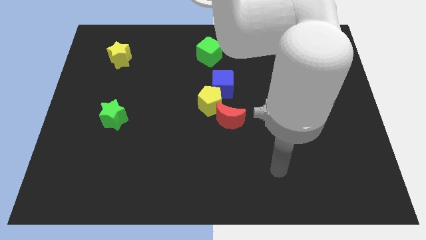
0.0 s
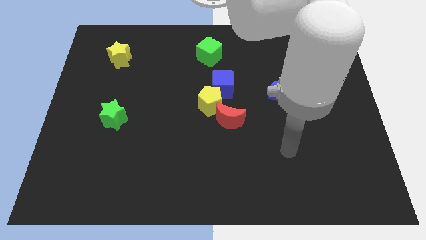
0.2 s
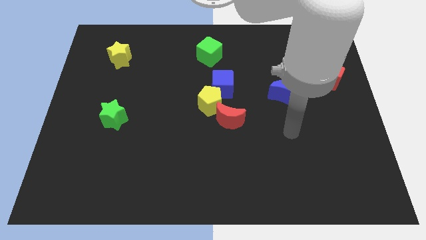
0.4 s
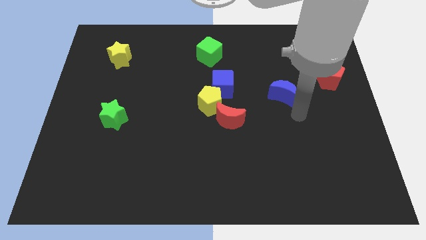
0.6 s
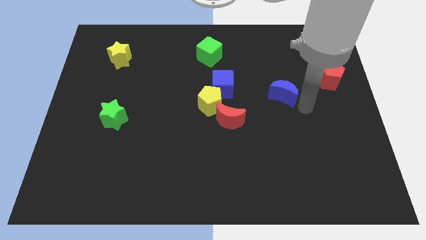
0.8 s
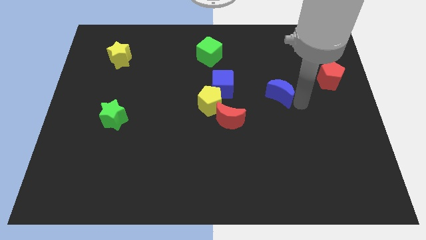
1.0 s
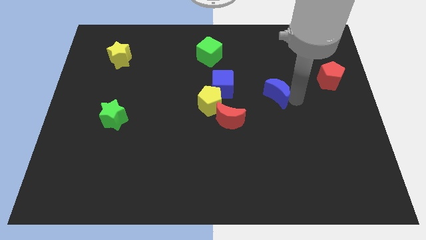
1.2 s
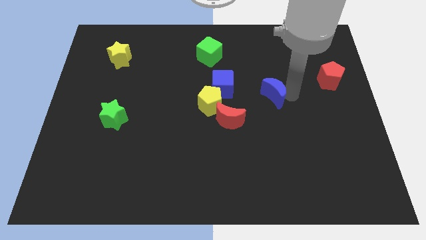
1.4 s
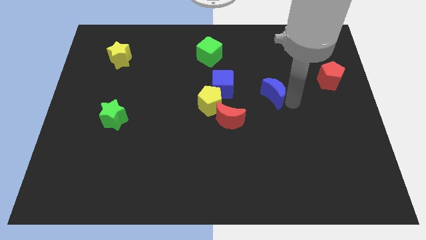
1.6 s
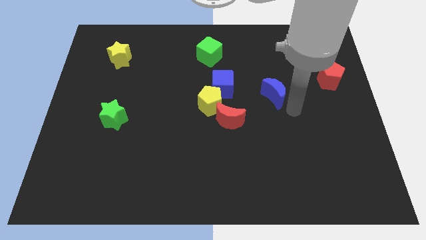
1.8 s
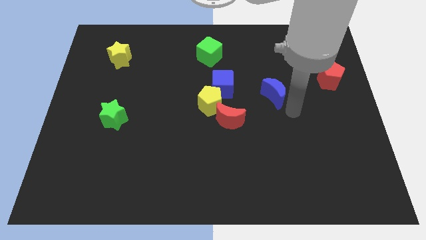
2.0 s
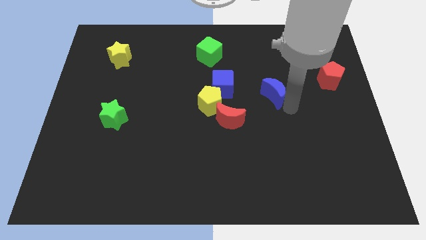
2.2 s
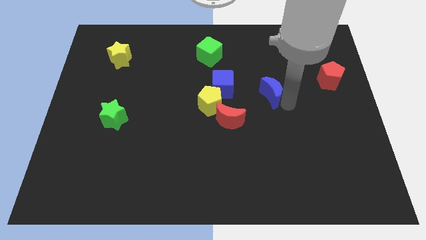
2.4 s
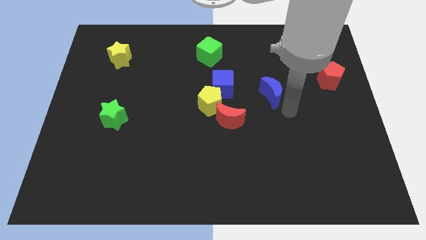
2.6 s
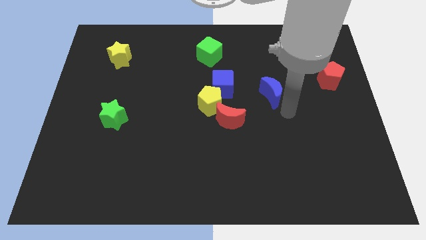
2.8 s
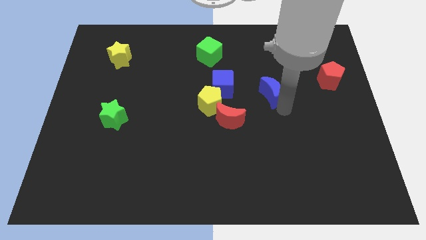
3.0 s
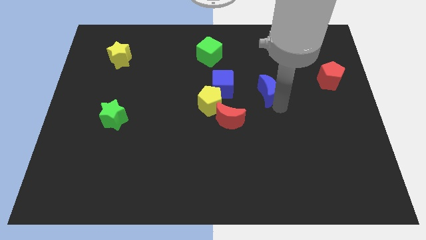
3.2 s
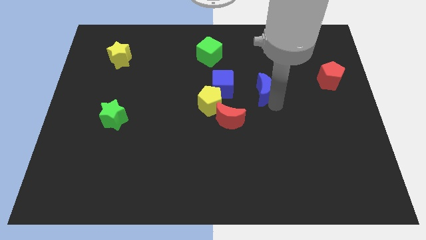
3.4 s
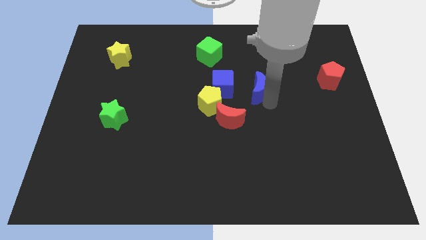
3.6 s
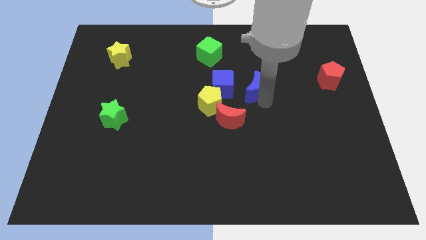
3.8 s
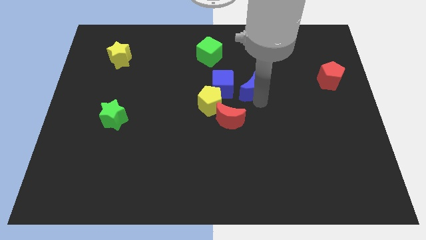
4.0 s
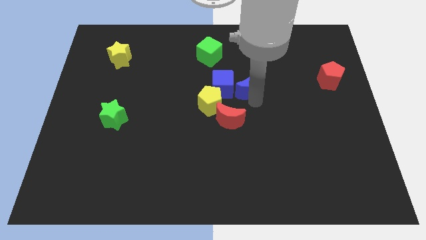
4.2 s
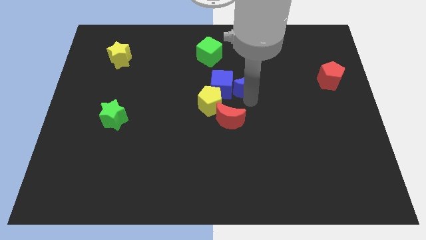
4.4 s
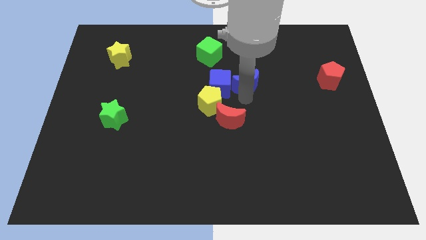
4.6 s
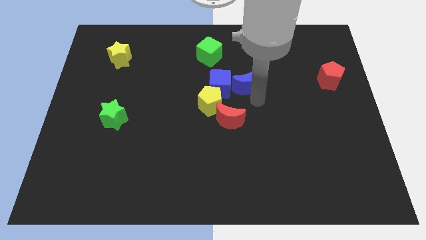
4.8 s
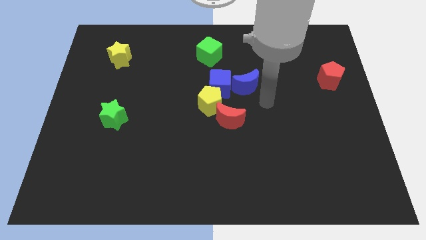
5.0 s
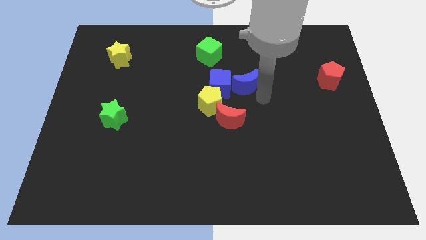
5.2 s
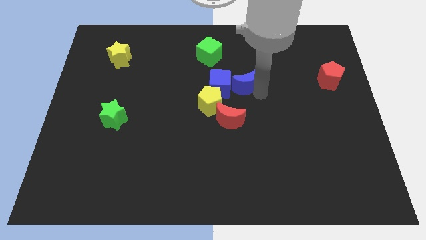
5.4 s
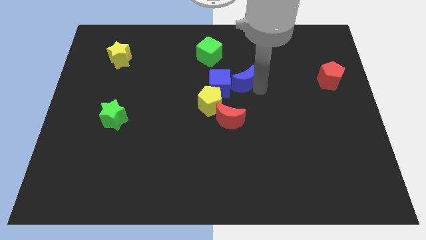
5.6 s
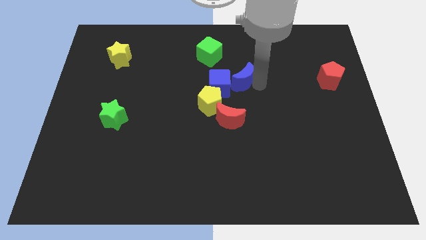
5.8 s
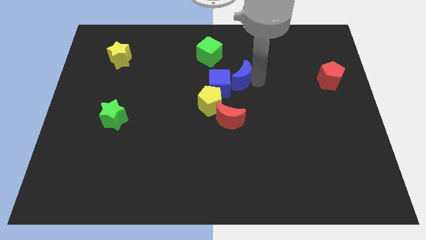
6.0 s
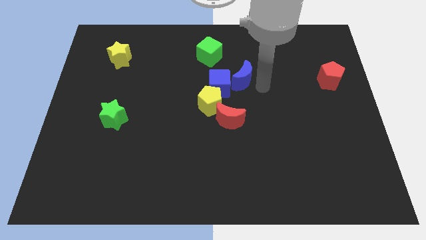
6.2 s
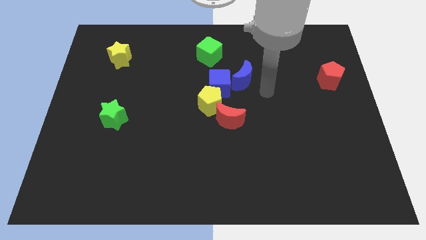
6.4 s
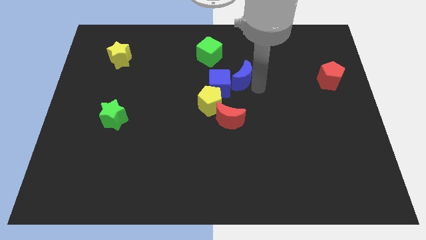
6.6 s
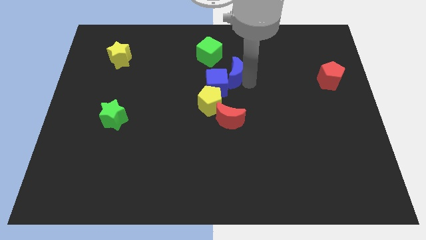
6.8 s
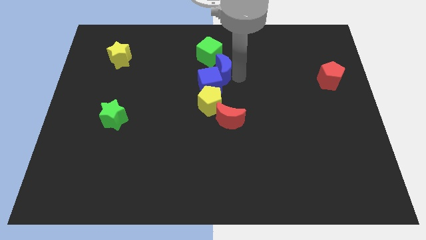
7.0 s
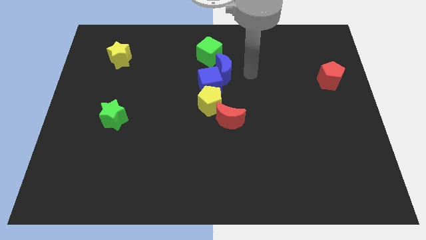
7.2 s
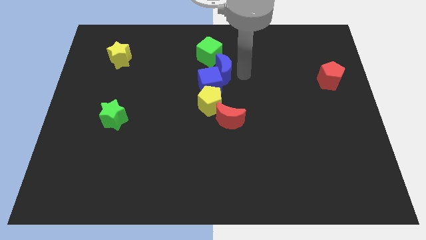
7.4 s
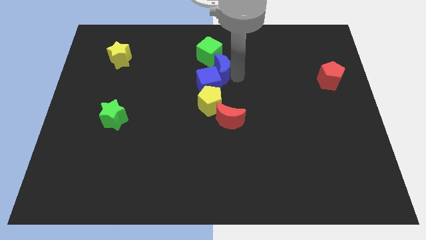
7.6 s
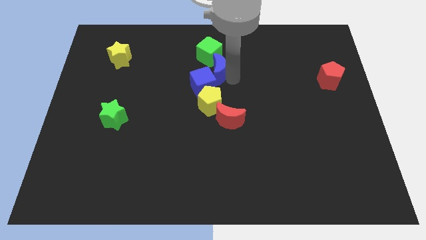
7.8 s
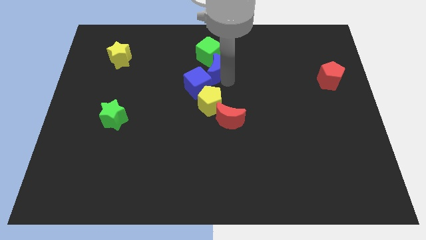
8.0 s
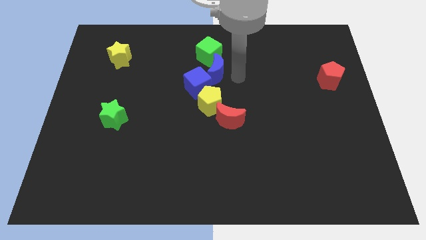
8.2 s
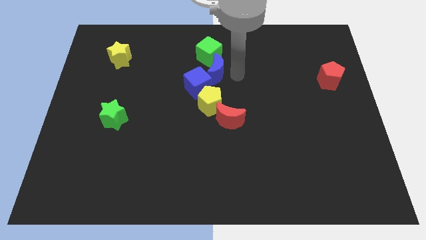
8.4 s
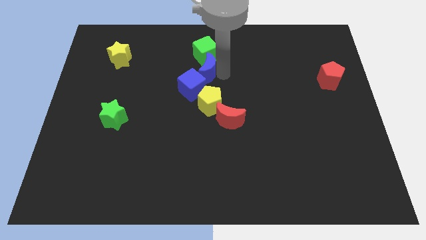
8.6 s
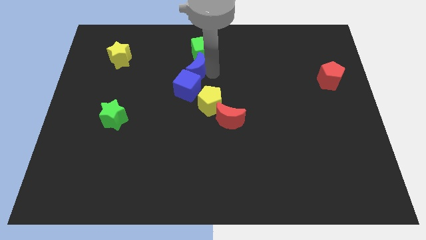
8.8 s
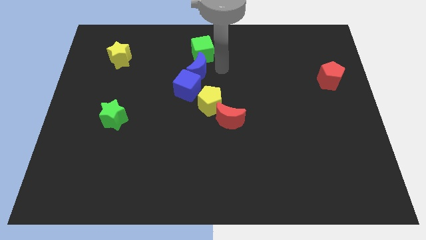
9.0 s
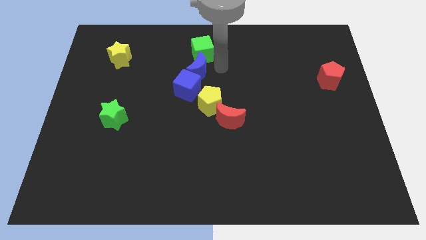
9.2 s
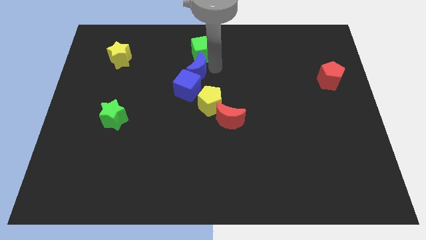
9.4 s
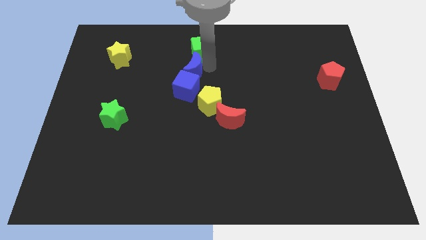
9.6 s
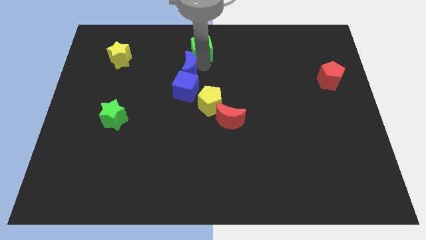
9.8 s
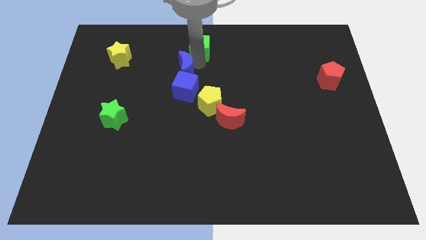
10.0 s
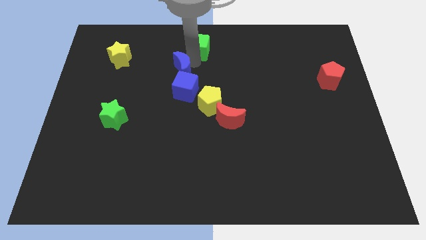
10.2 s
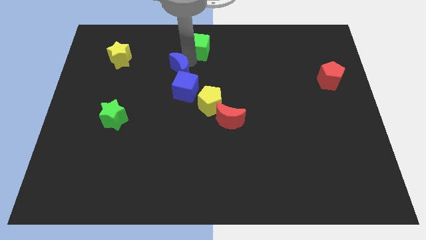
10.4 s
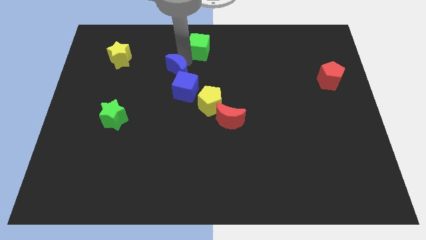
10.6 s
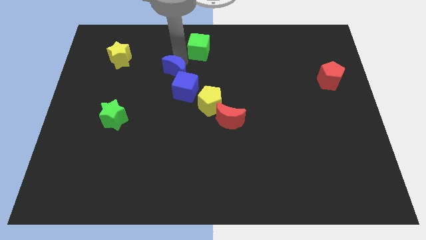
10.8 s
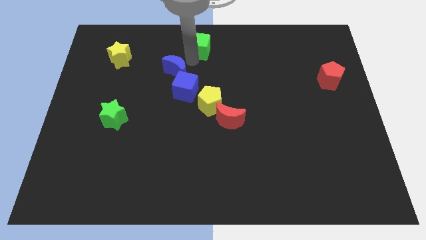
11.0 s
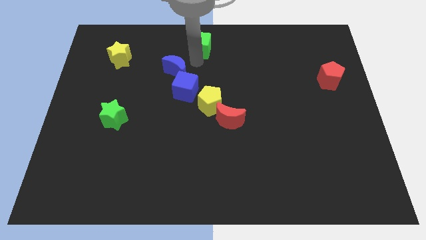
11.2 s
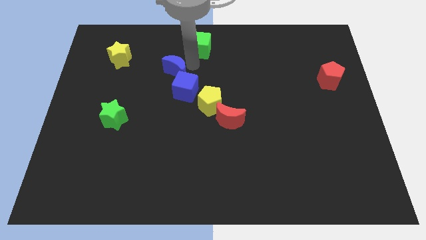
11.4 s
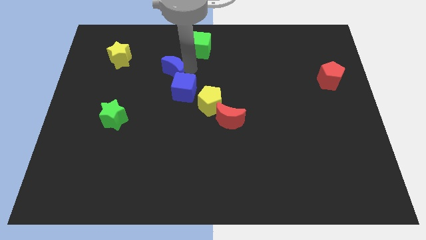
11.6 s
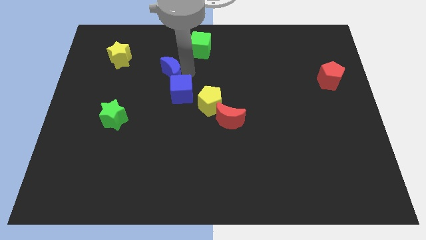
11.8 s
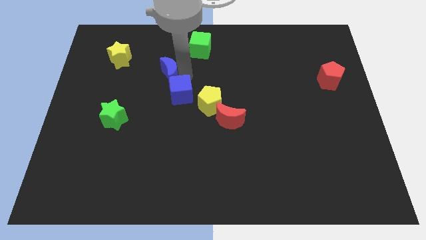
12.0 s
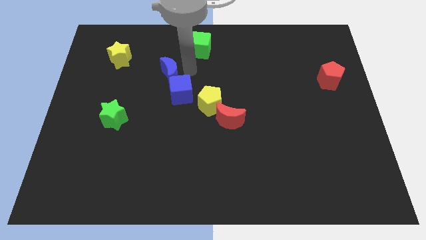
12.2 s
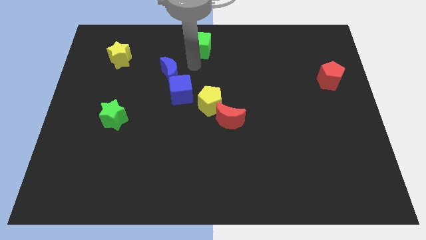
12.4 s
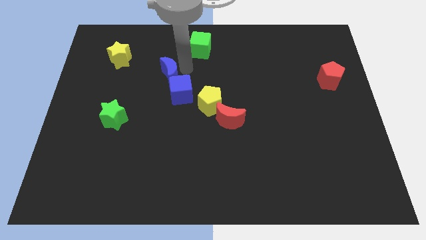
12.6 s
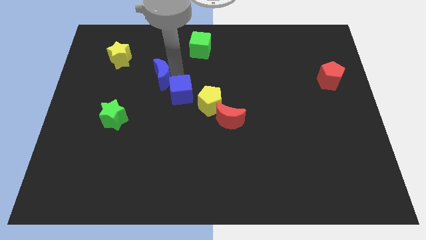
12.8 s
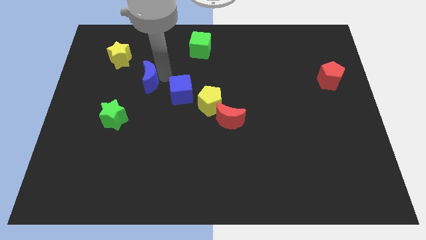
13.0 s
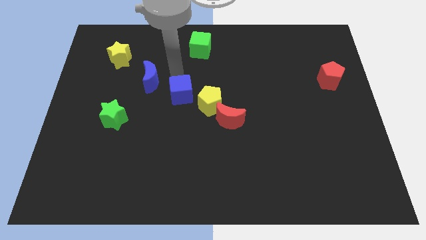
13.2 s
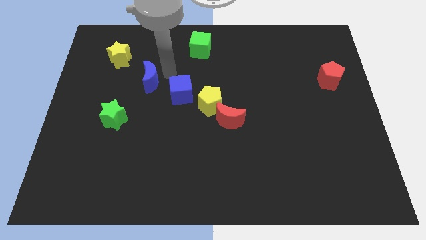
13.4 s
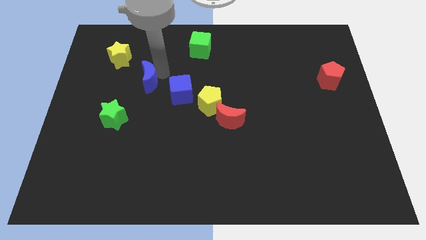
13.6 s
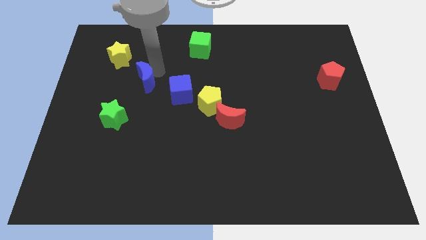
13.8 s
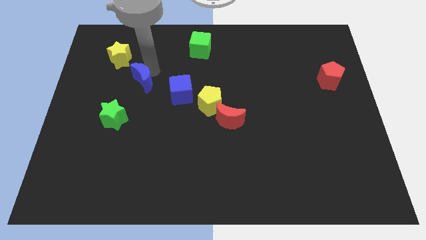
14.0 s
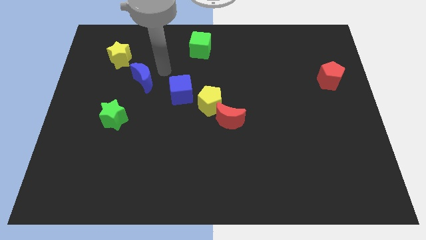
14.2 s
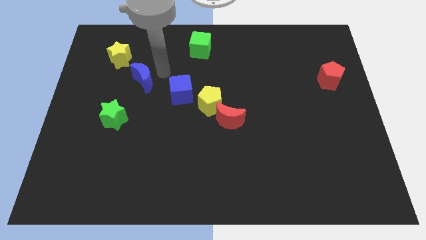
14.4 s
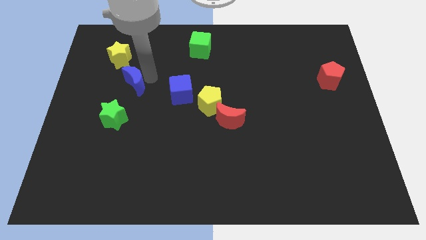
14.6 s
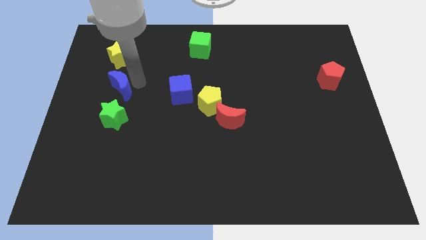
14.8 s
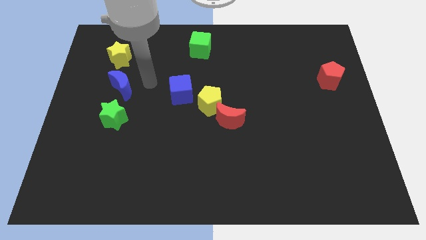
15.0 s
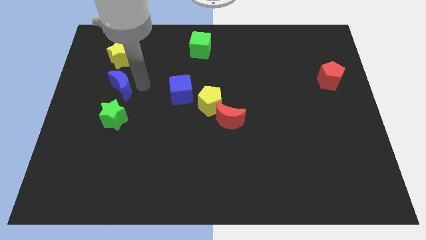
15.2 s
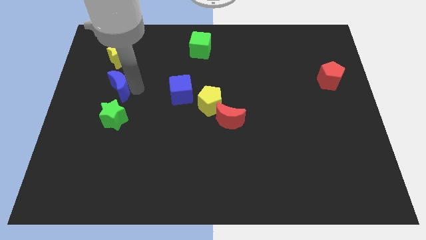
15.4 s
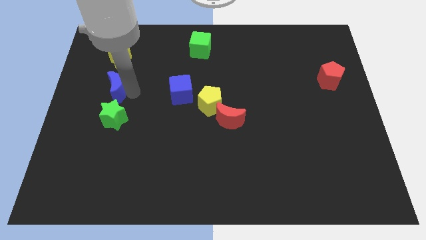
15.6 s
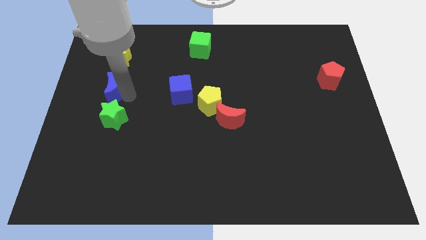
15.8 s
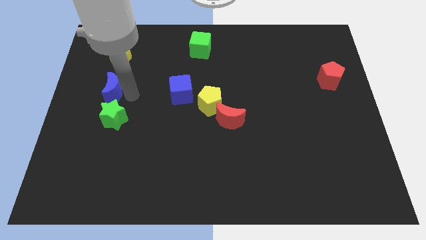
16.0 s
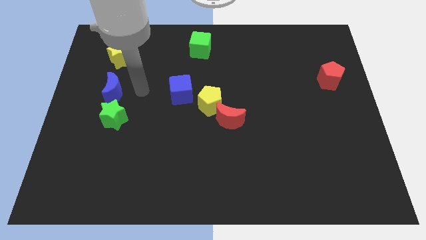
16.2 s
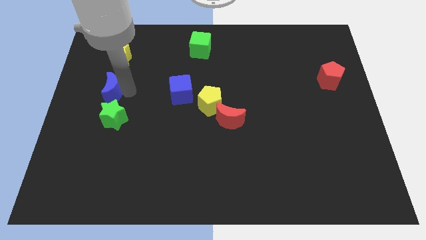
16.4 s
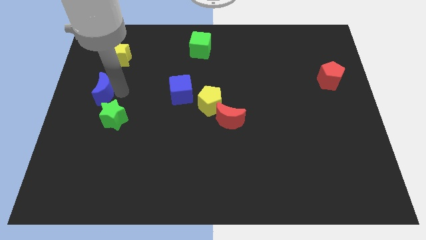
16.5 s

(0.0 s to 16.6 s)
move the blue moon to the center left

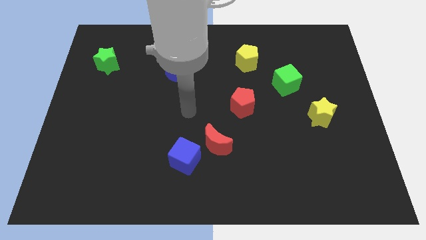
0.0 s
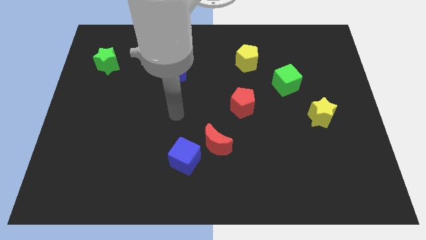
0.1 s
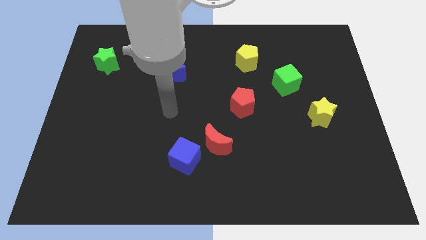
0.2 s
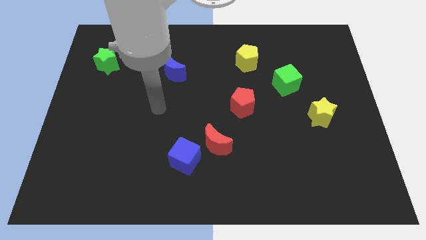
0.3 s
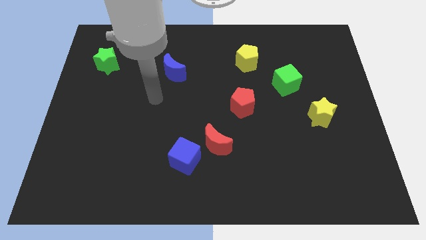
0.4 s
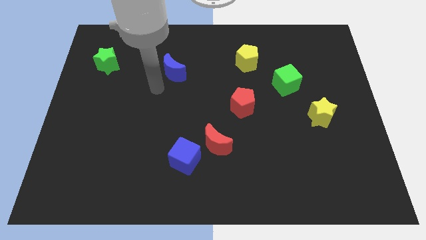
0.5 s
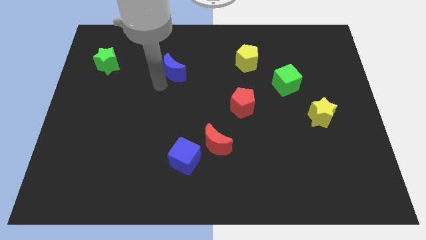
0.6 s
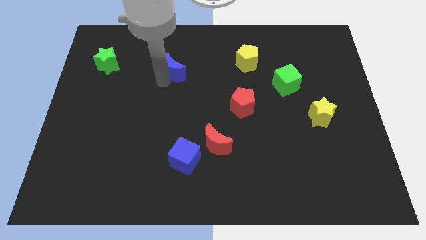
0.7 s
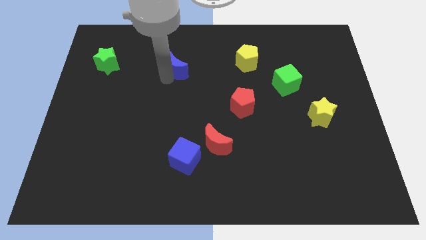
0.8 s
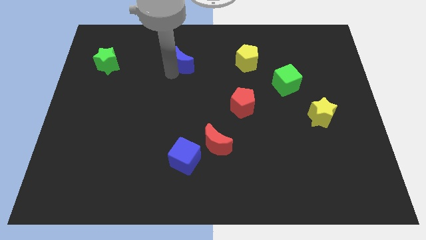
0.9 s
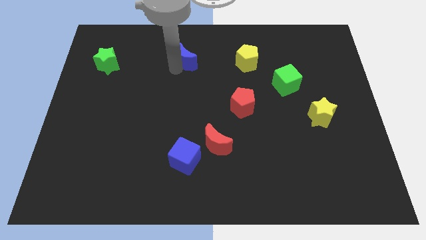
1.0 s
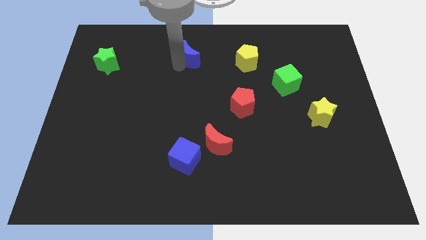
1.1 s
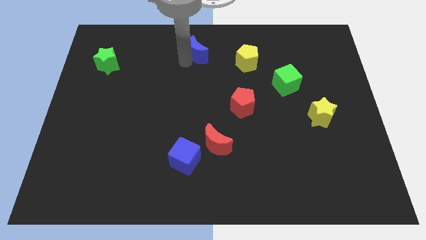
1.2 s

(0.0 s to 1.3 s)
push the blue moon to the top
